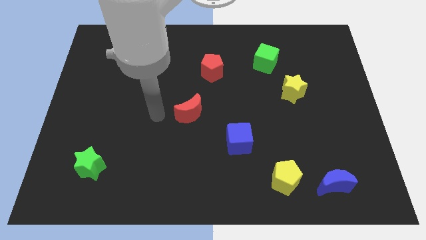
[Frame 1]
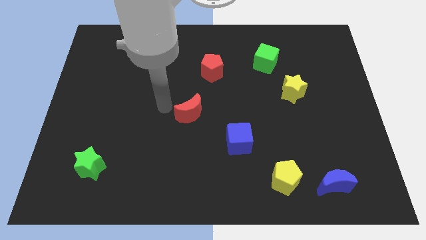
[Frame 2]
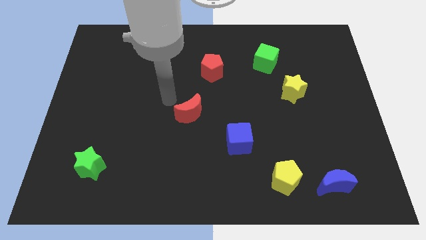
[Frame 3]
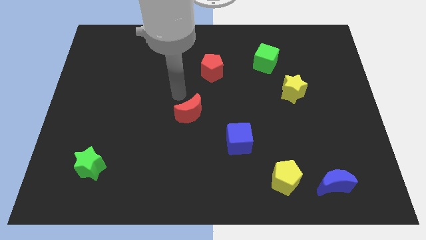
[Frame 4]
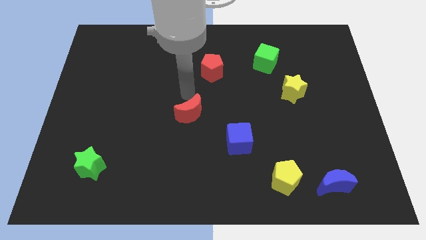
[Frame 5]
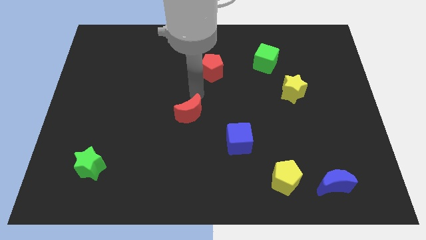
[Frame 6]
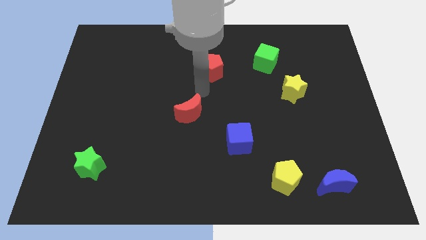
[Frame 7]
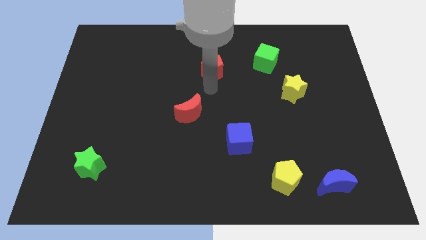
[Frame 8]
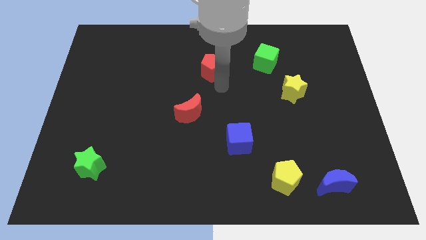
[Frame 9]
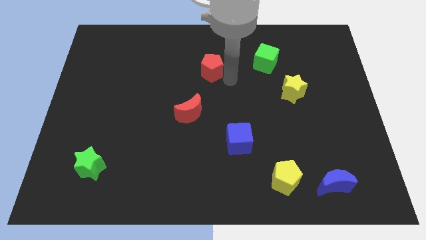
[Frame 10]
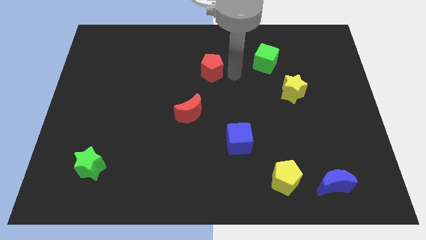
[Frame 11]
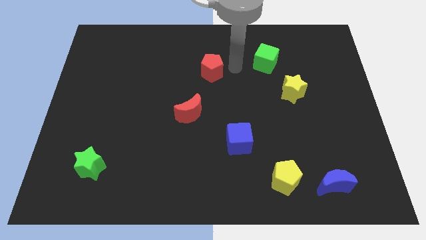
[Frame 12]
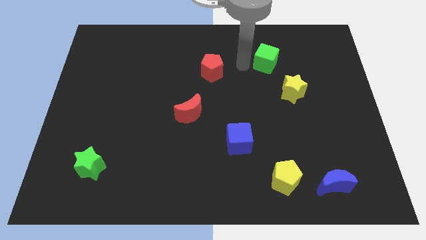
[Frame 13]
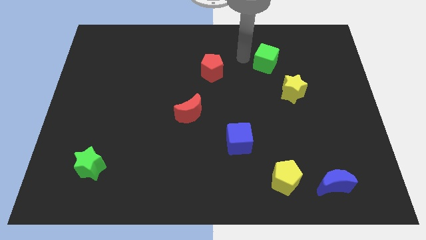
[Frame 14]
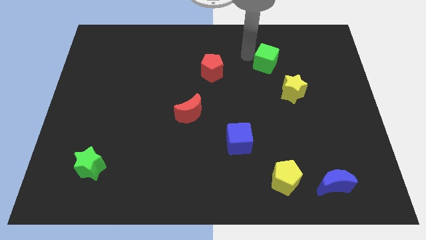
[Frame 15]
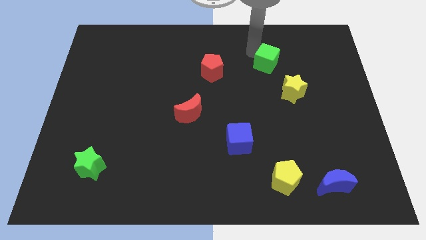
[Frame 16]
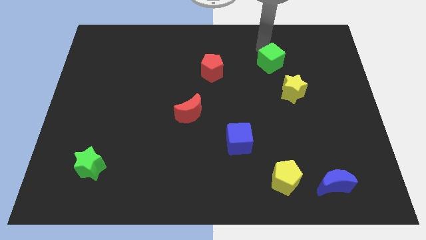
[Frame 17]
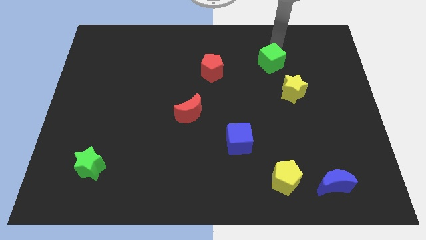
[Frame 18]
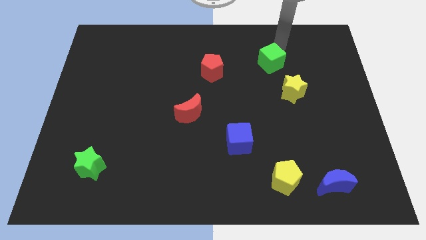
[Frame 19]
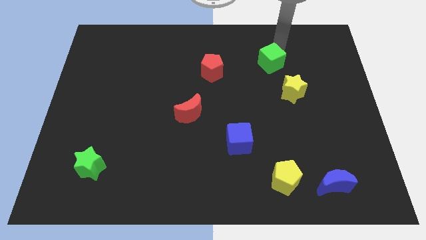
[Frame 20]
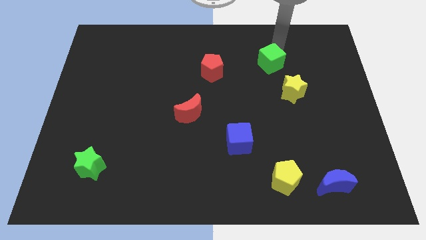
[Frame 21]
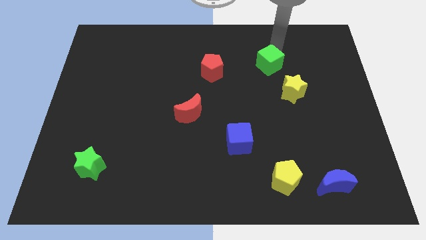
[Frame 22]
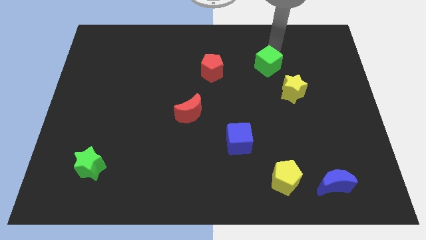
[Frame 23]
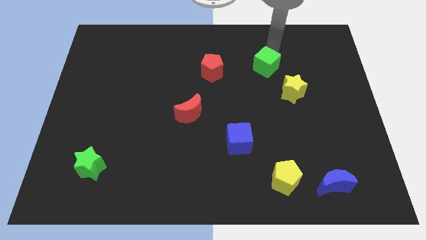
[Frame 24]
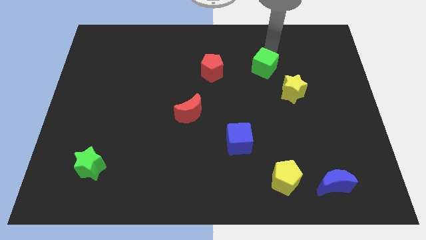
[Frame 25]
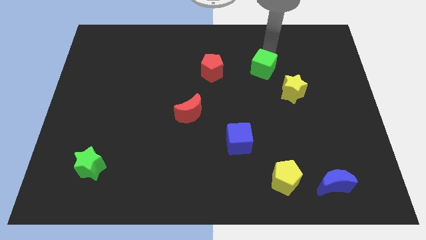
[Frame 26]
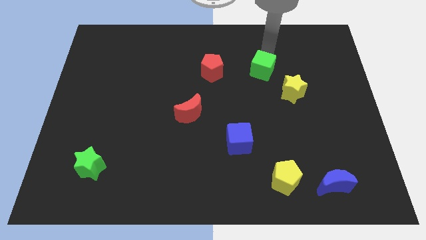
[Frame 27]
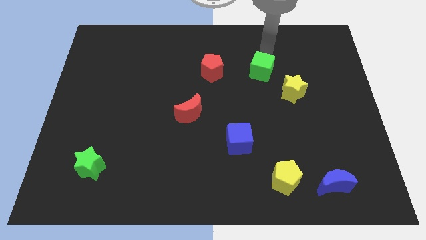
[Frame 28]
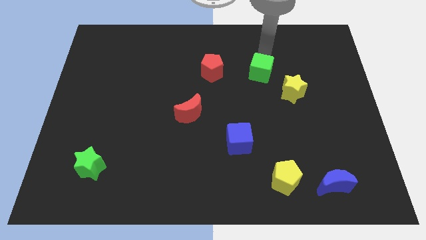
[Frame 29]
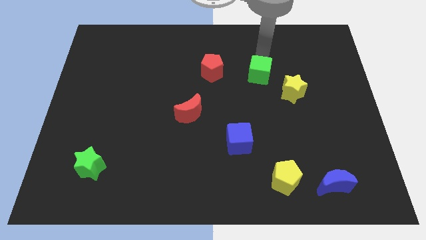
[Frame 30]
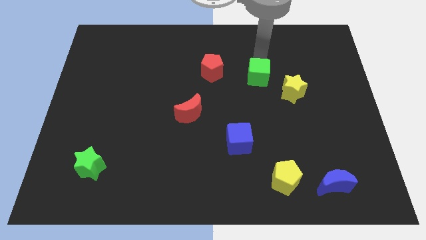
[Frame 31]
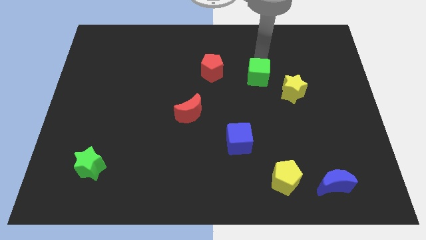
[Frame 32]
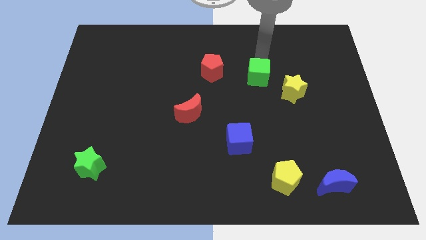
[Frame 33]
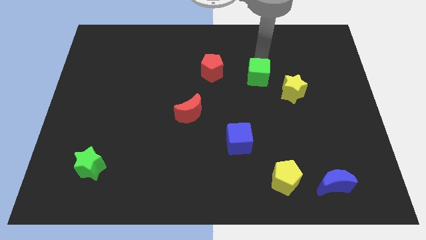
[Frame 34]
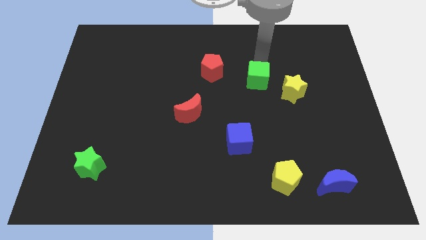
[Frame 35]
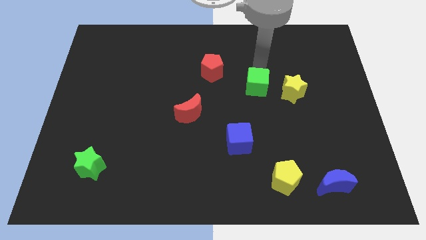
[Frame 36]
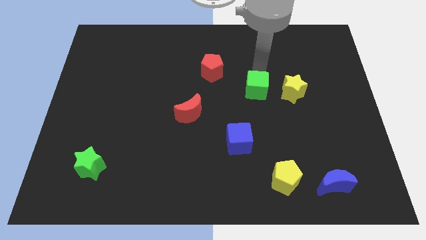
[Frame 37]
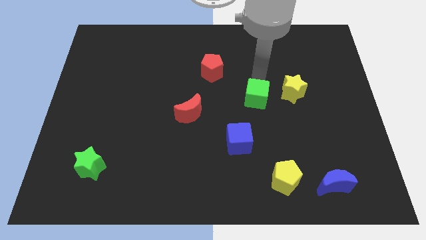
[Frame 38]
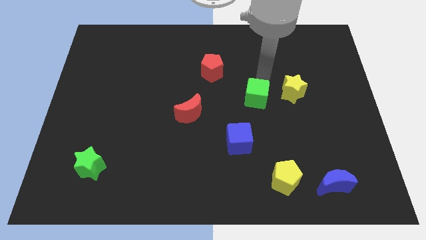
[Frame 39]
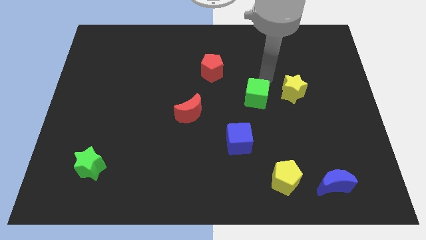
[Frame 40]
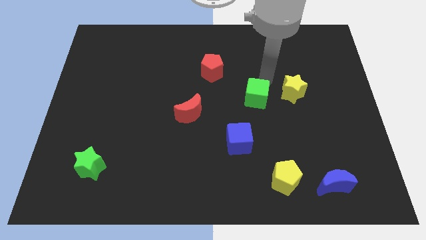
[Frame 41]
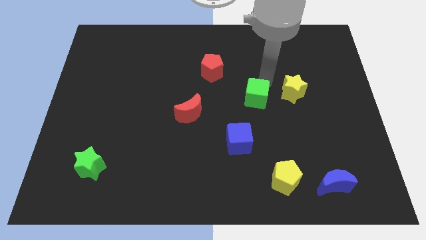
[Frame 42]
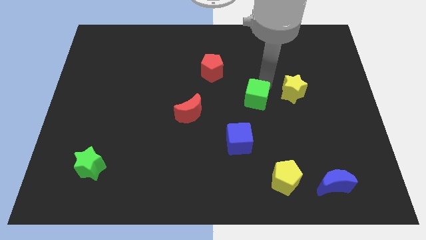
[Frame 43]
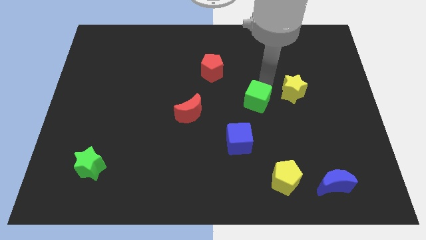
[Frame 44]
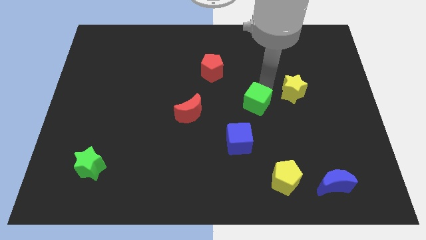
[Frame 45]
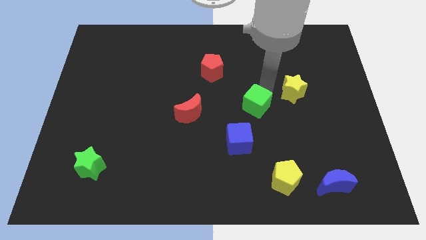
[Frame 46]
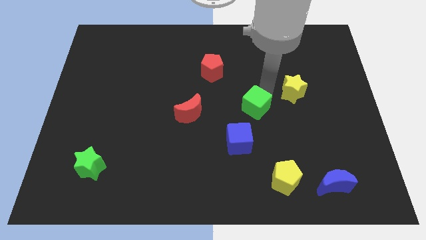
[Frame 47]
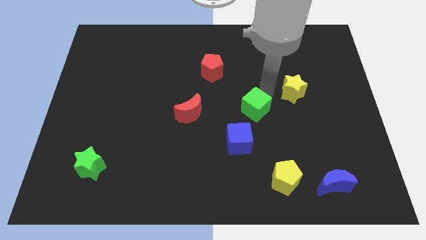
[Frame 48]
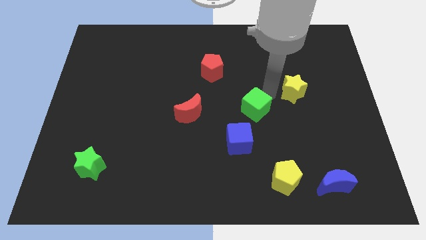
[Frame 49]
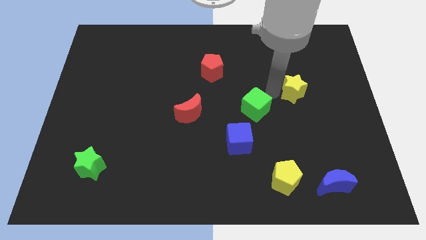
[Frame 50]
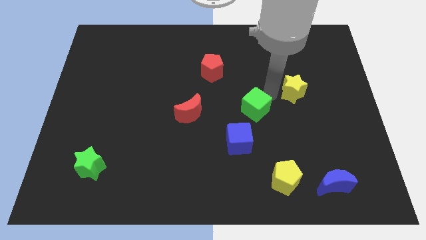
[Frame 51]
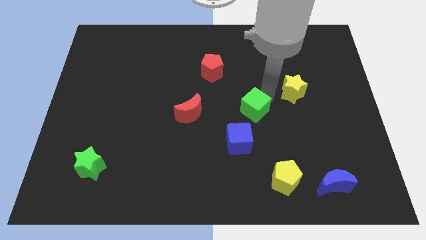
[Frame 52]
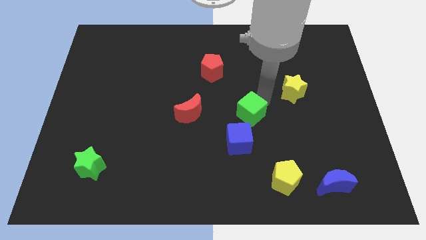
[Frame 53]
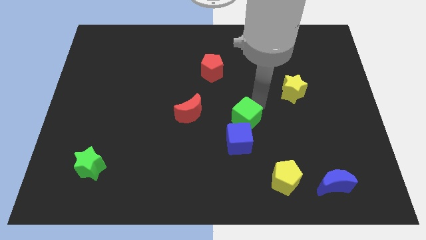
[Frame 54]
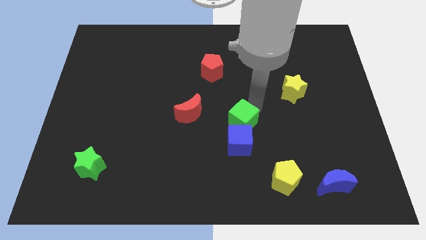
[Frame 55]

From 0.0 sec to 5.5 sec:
move the green cube to the blue cube

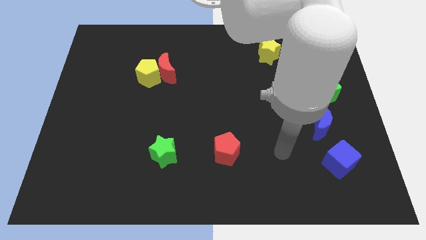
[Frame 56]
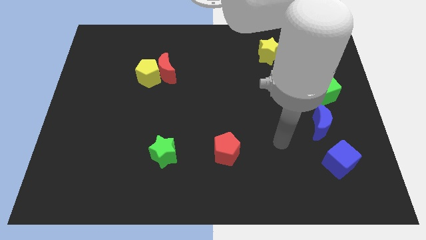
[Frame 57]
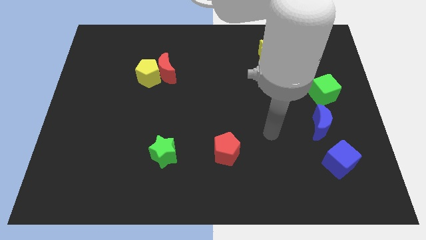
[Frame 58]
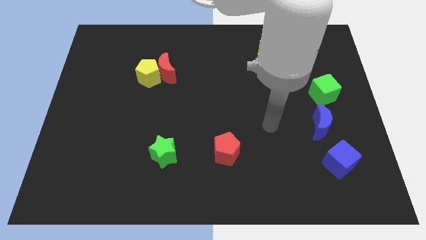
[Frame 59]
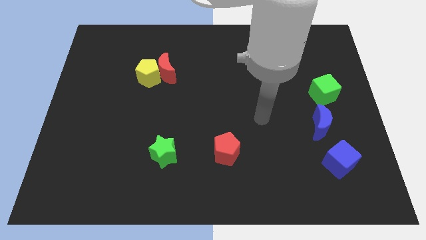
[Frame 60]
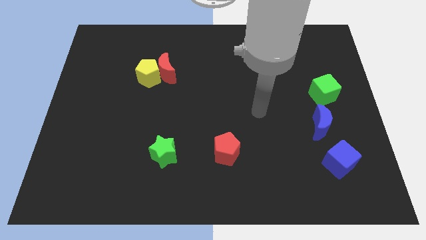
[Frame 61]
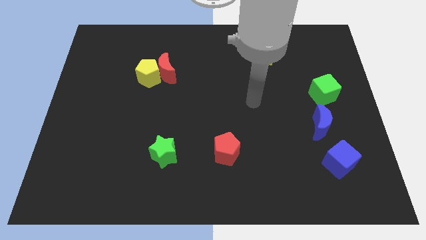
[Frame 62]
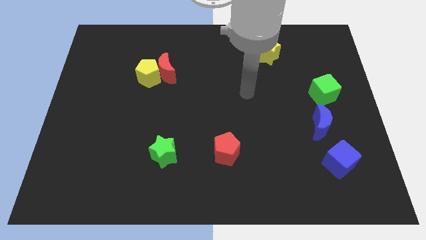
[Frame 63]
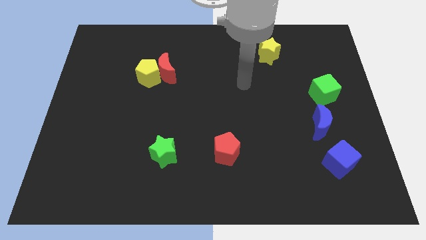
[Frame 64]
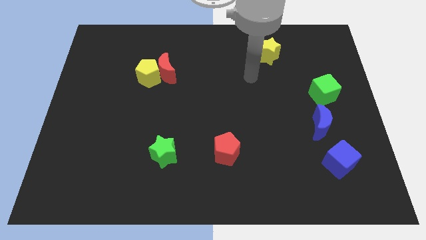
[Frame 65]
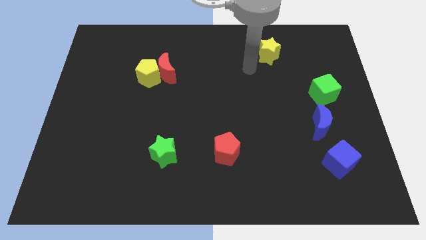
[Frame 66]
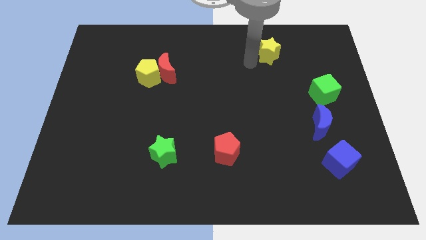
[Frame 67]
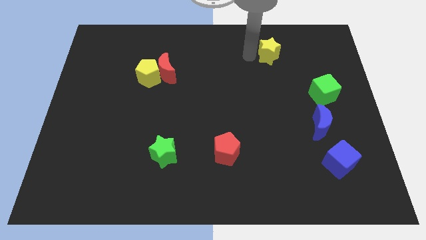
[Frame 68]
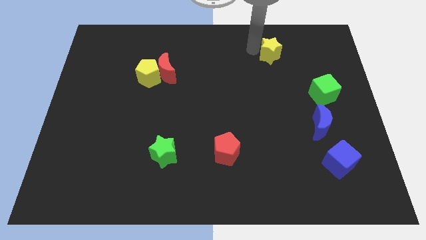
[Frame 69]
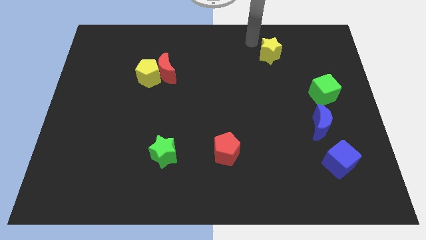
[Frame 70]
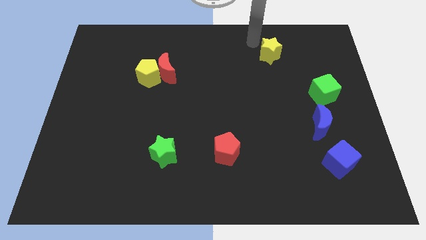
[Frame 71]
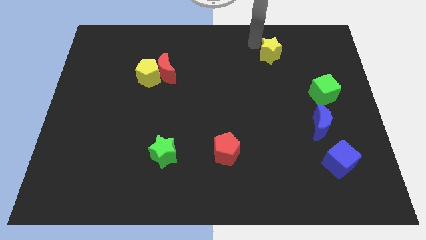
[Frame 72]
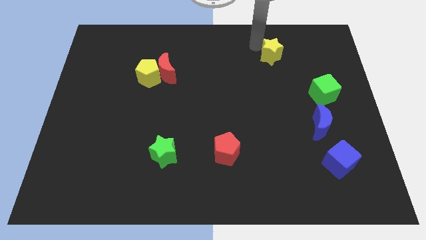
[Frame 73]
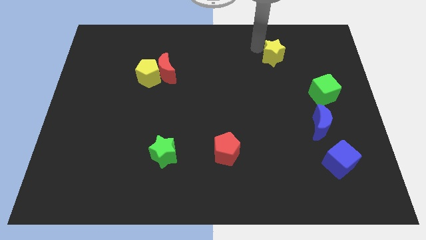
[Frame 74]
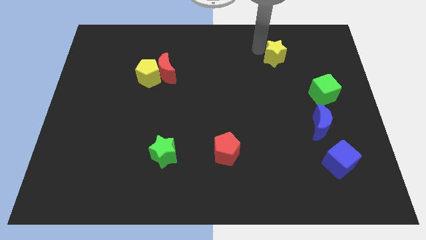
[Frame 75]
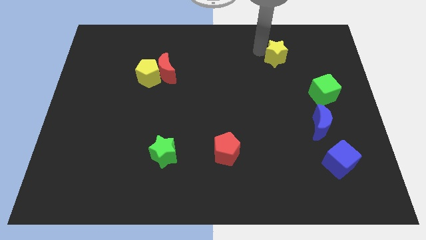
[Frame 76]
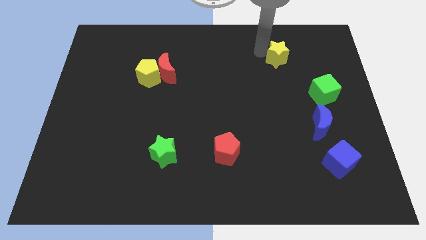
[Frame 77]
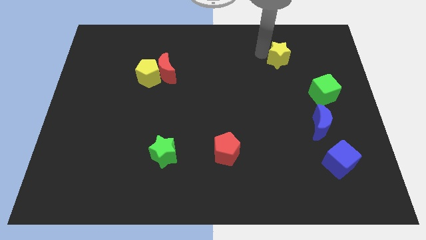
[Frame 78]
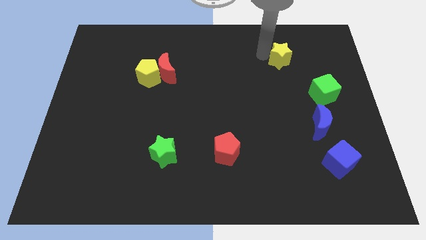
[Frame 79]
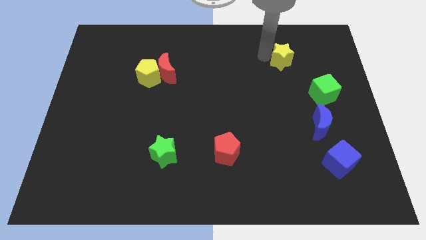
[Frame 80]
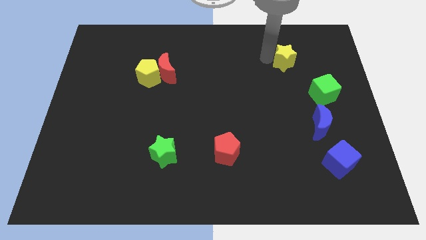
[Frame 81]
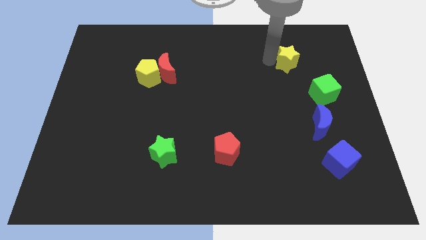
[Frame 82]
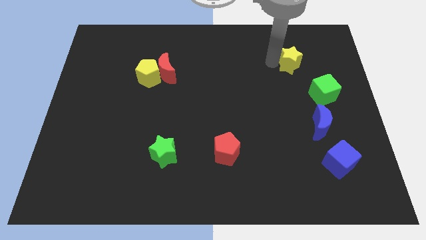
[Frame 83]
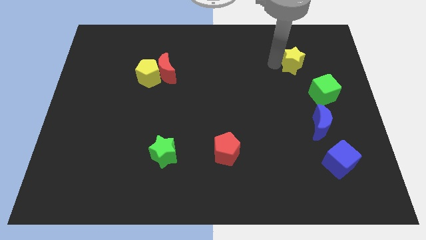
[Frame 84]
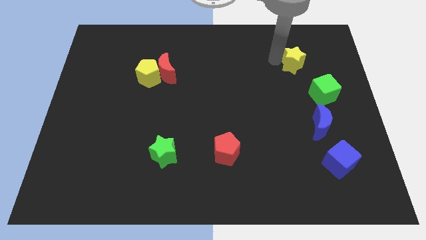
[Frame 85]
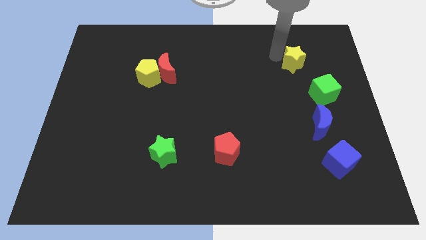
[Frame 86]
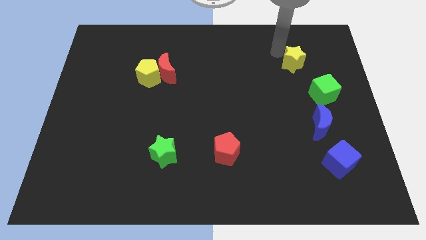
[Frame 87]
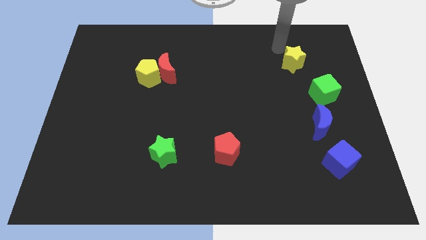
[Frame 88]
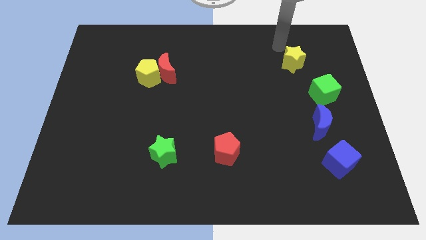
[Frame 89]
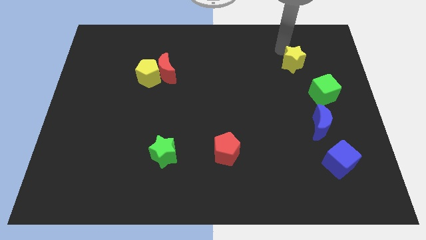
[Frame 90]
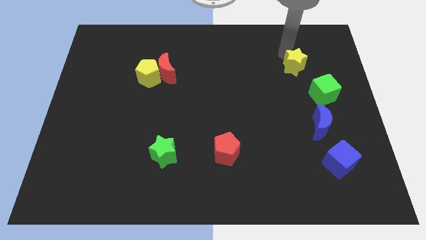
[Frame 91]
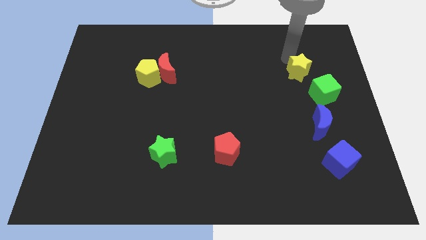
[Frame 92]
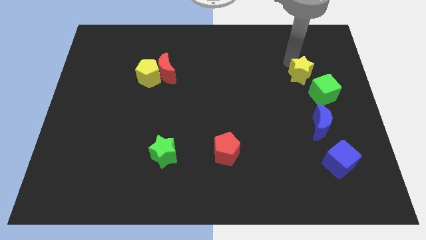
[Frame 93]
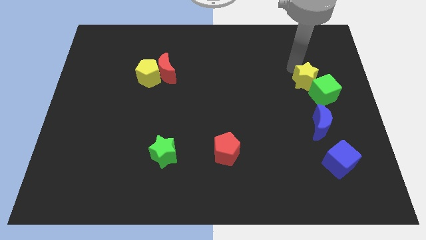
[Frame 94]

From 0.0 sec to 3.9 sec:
push the yellow star to the green cube
